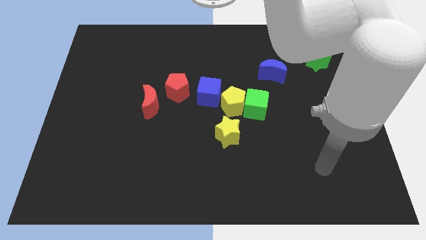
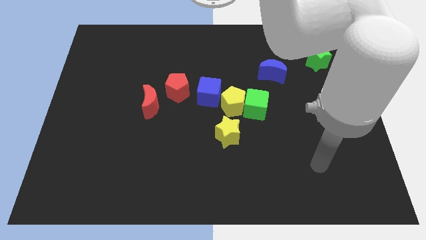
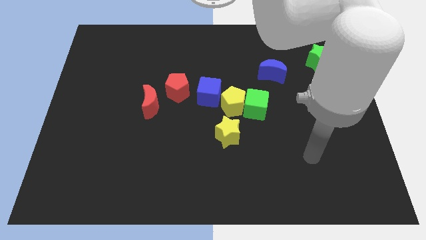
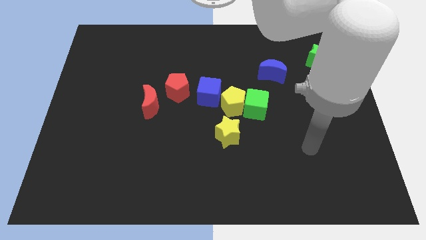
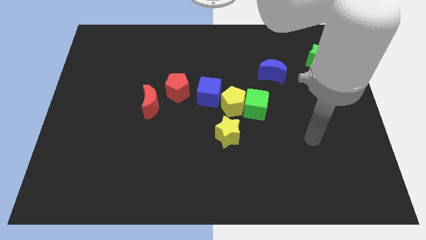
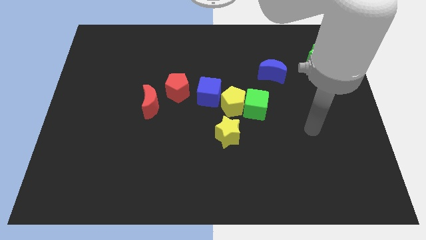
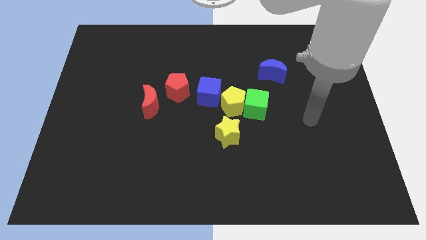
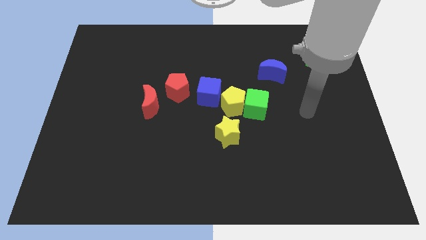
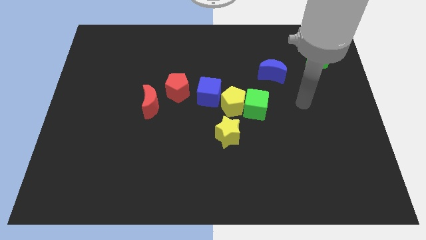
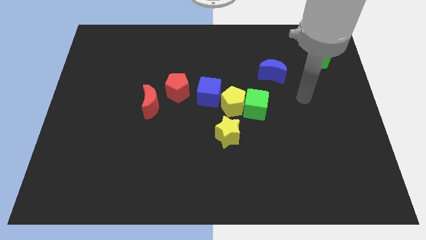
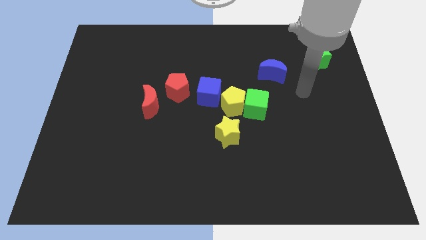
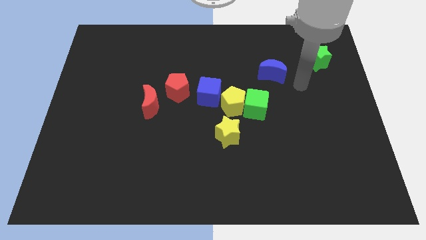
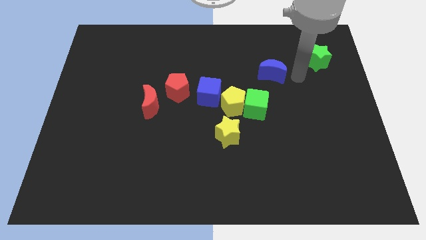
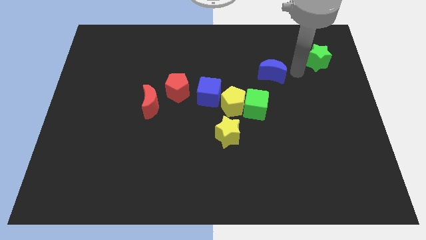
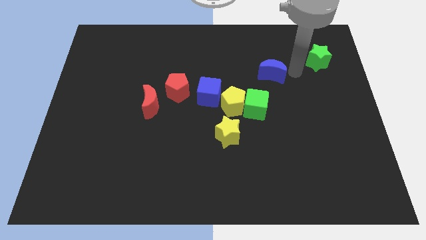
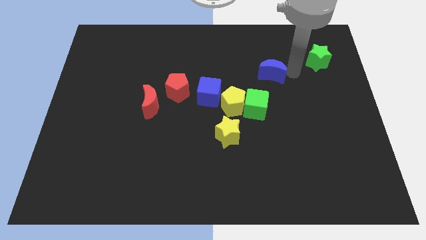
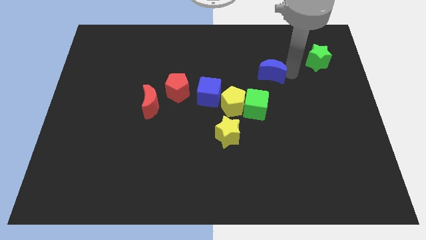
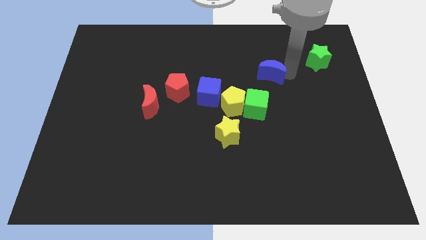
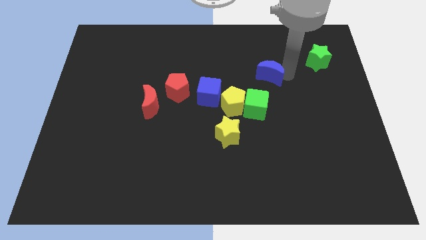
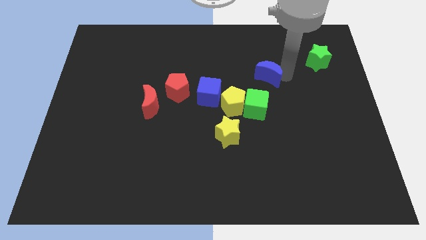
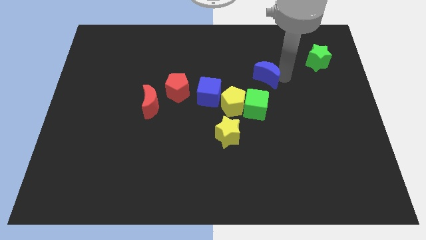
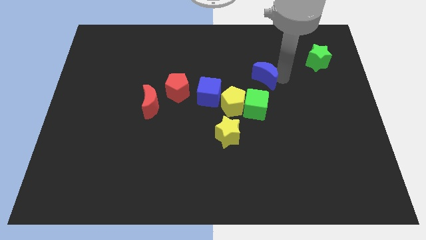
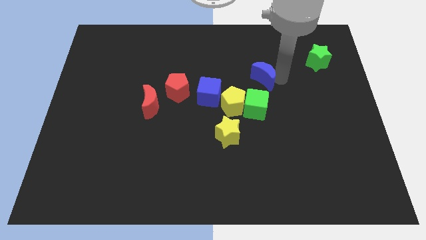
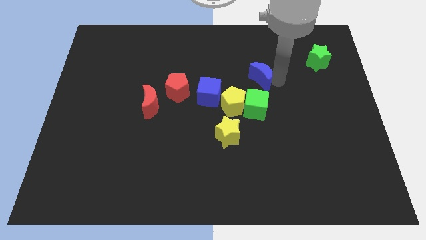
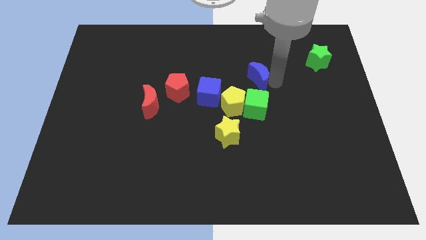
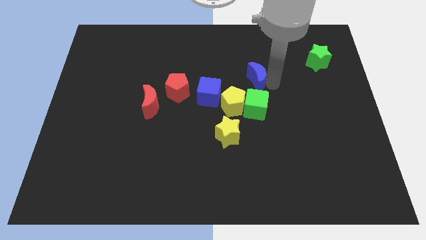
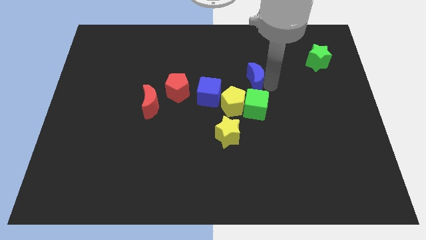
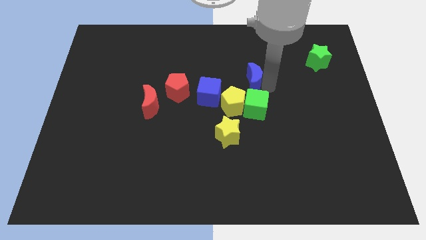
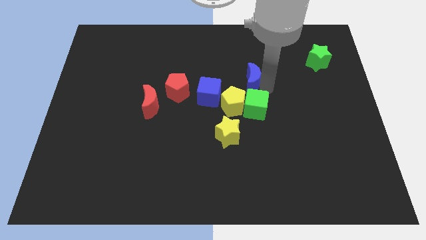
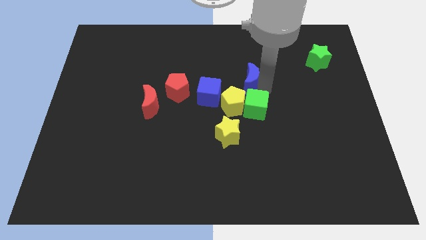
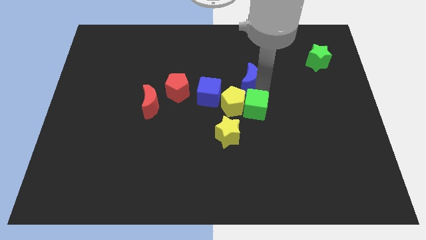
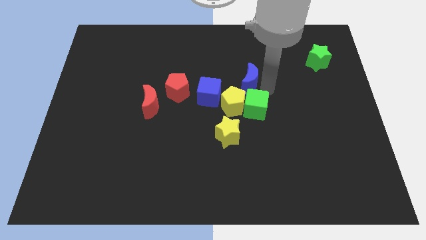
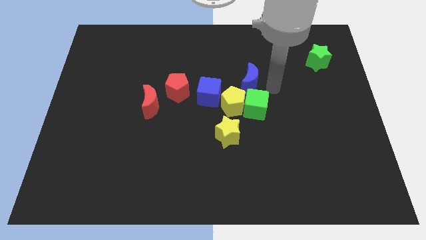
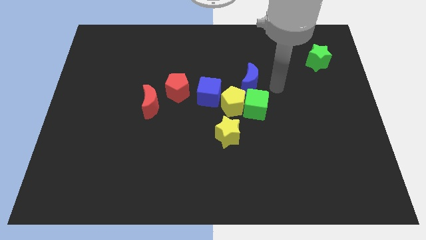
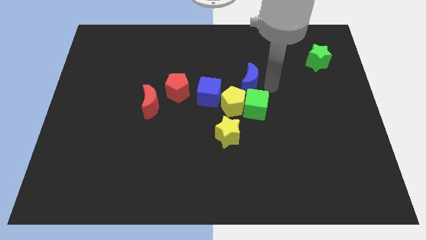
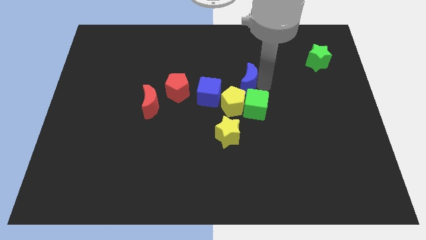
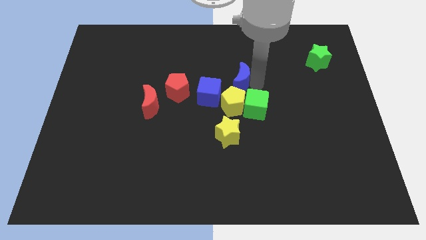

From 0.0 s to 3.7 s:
slide the blue moon to the left a little

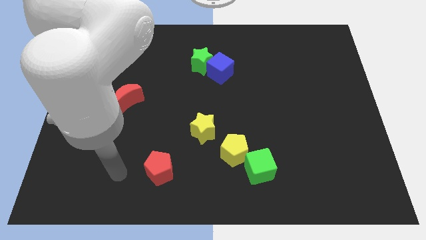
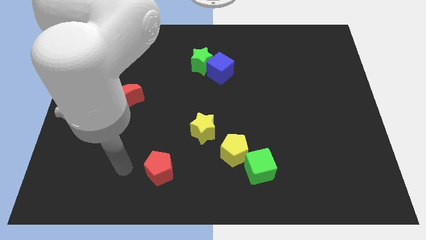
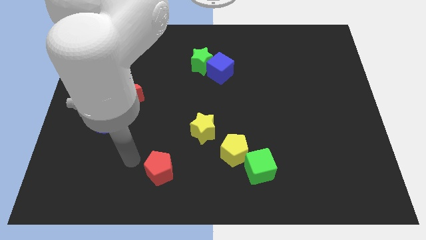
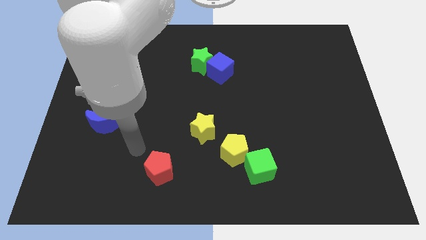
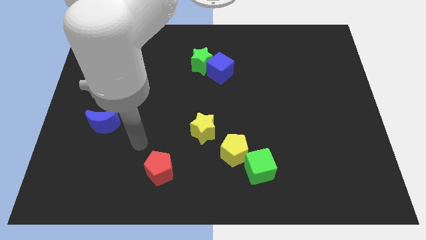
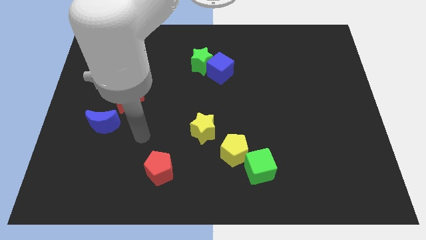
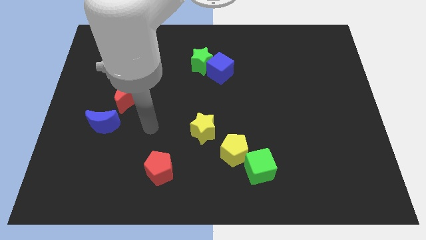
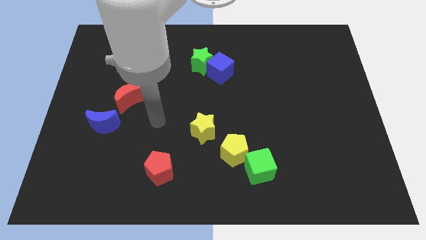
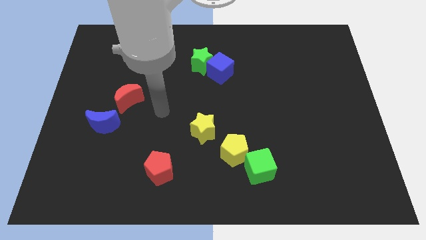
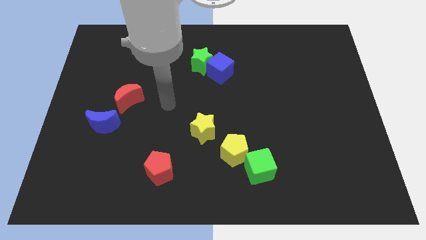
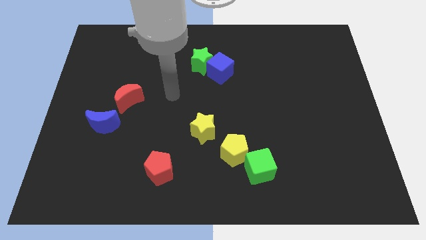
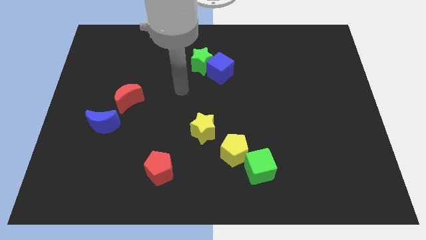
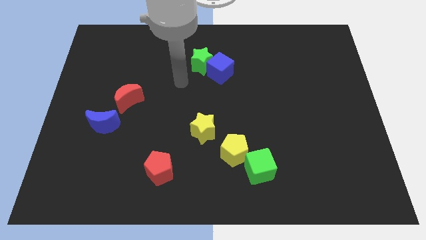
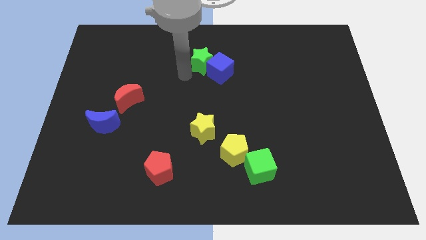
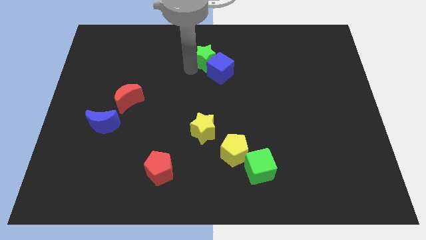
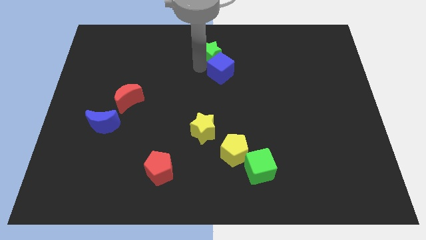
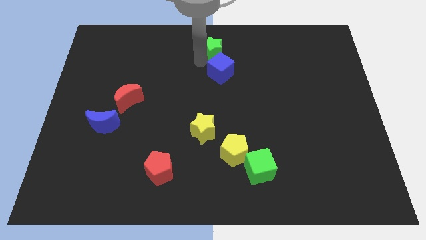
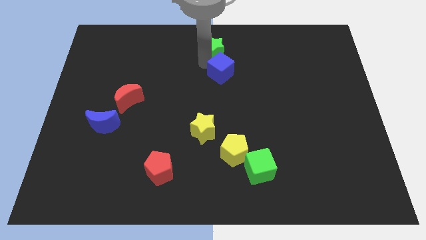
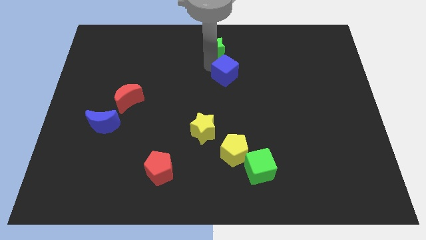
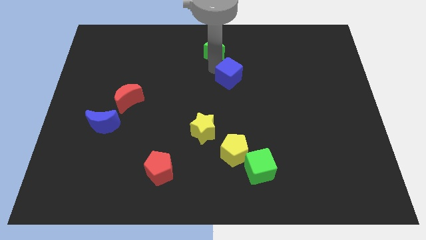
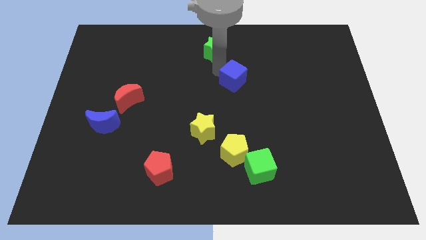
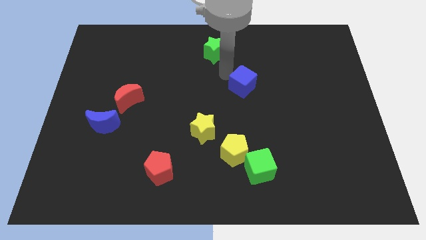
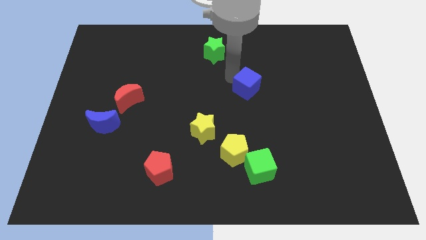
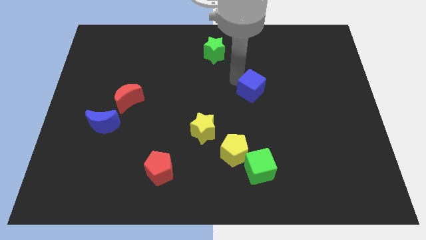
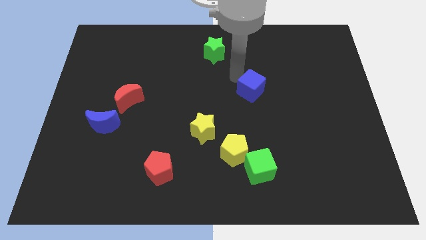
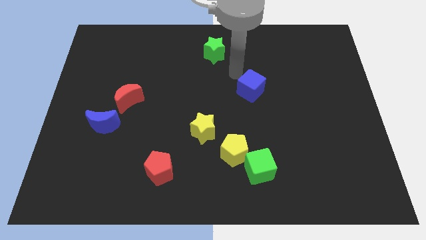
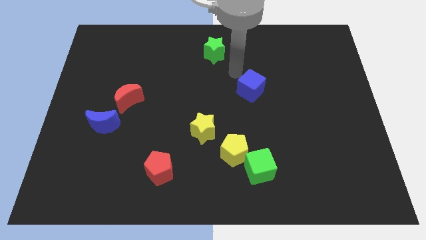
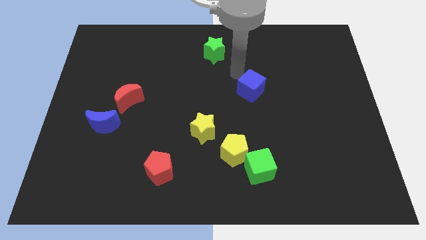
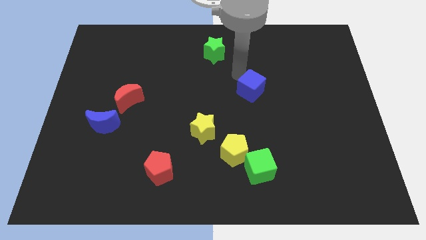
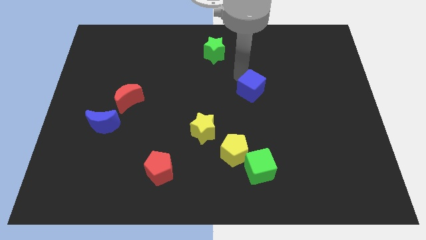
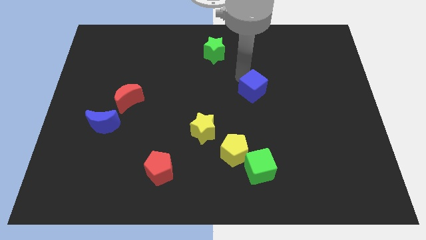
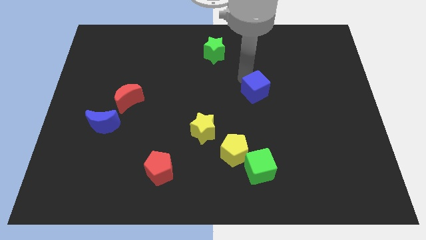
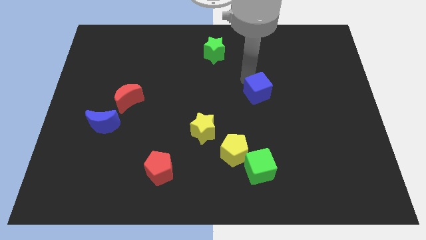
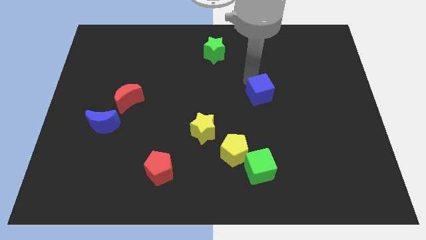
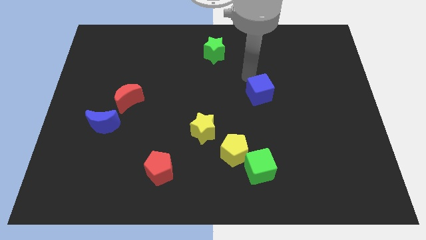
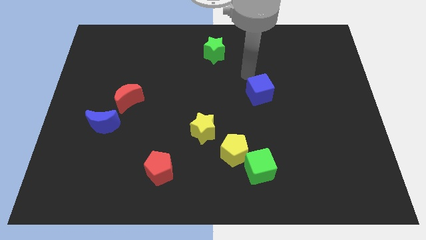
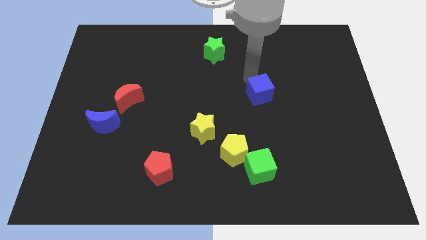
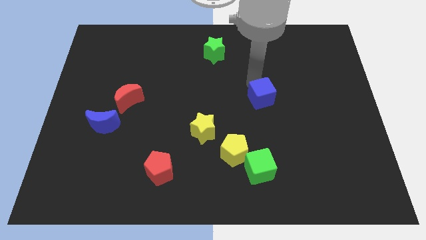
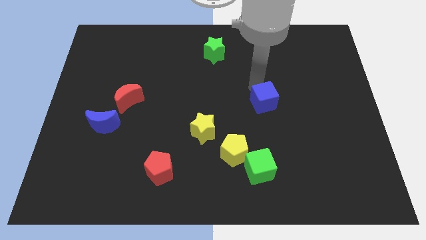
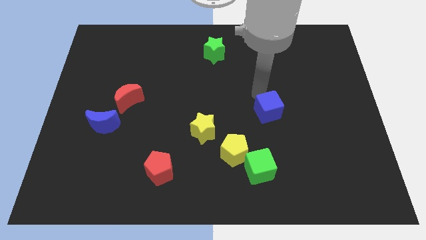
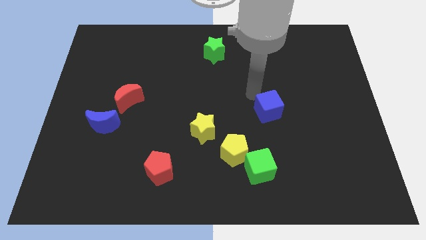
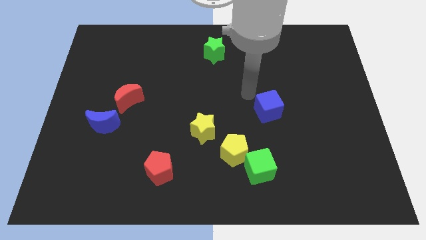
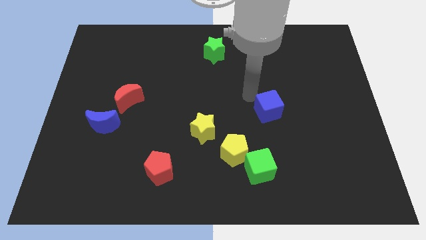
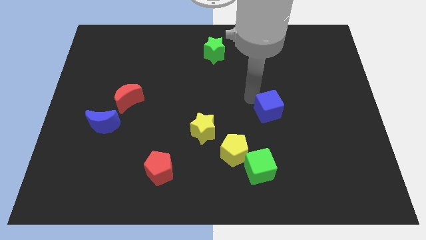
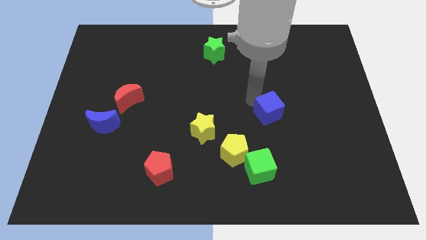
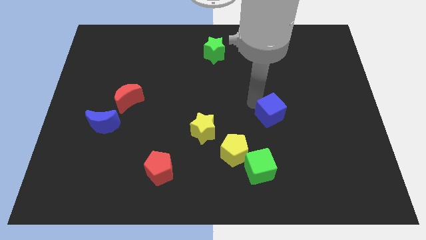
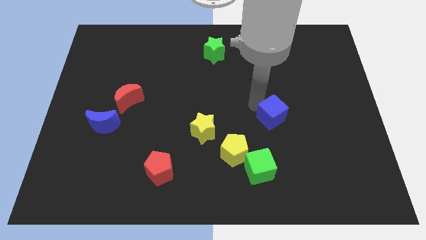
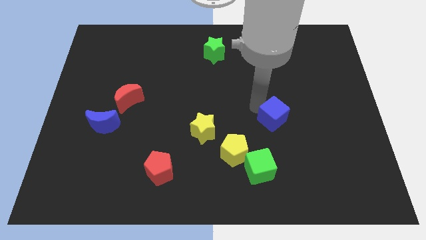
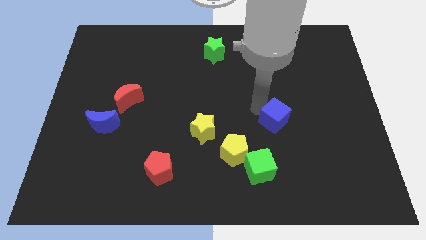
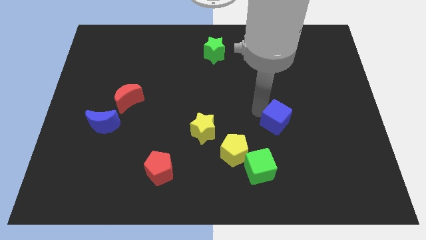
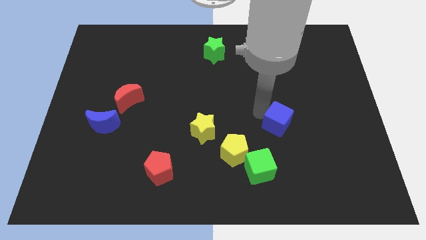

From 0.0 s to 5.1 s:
push the blue cube downwards and right diagonally
